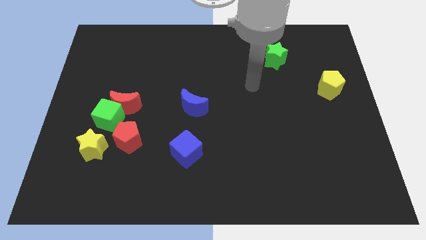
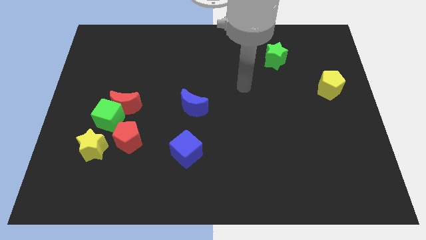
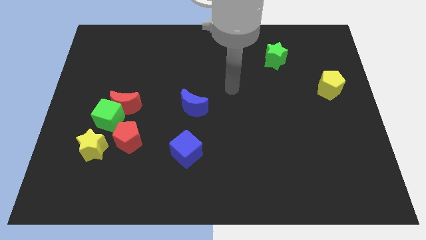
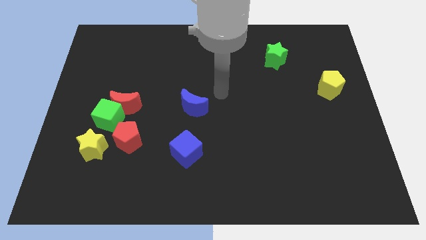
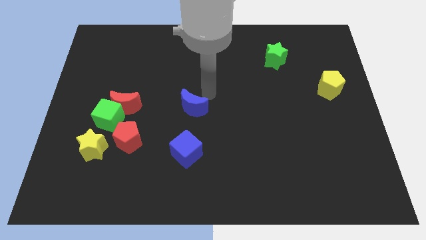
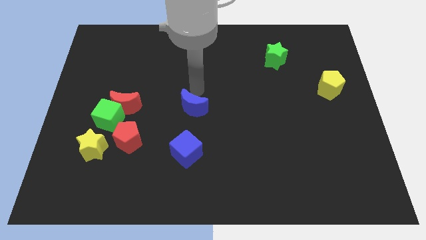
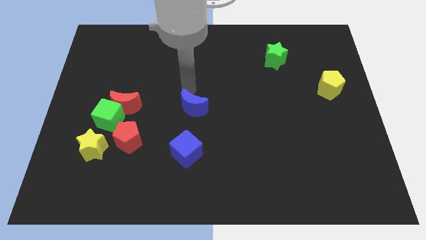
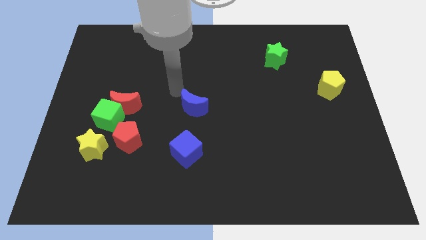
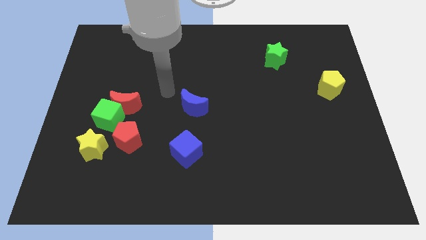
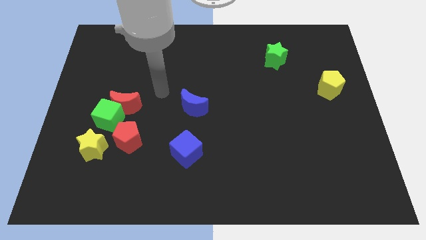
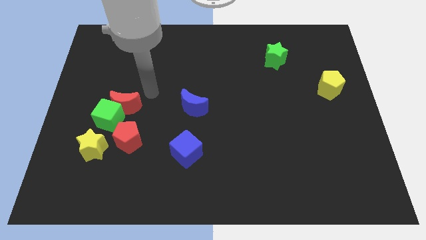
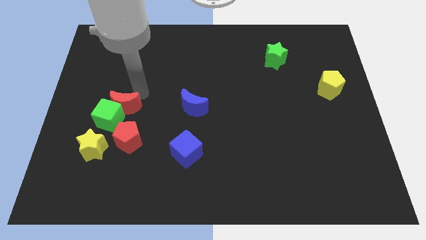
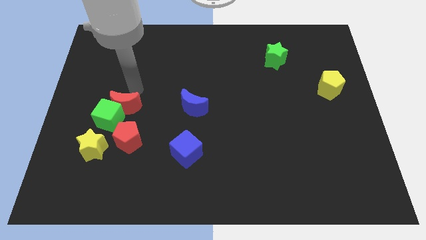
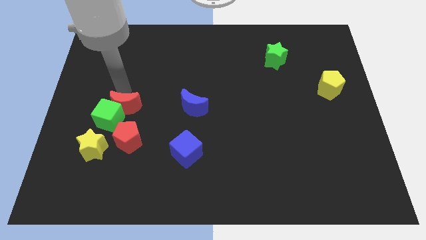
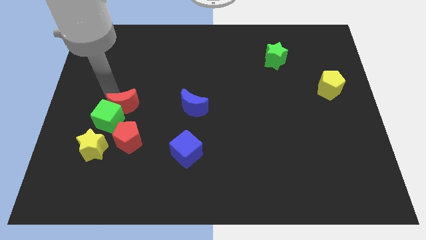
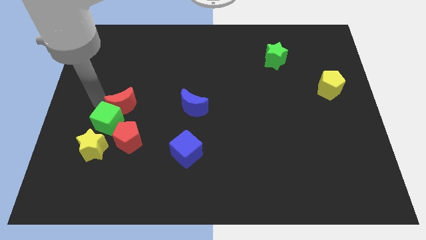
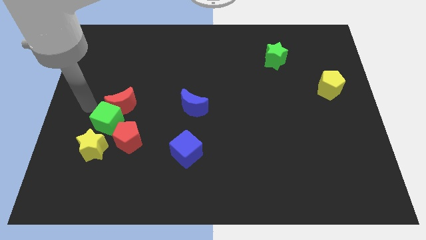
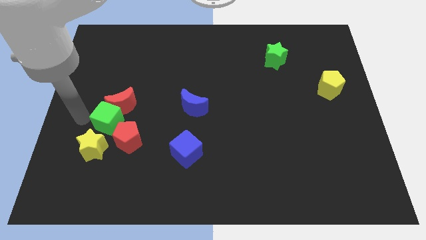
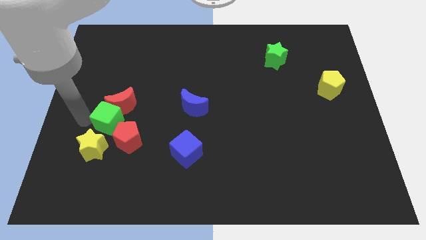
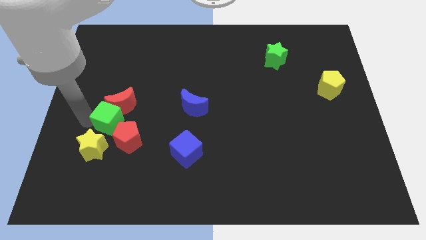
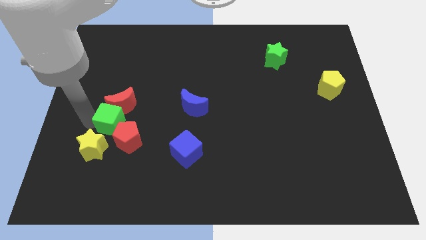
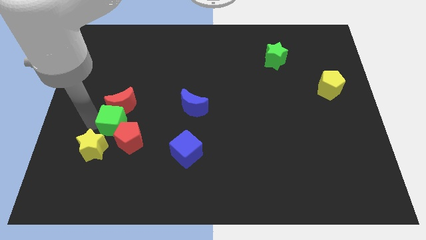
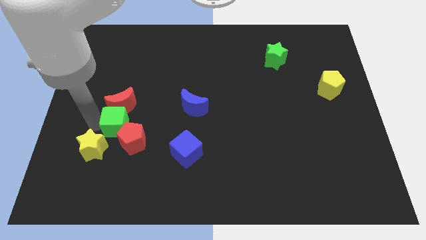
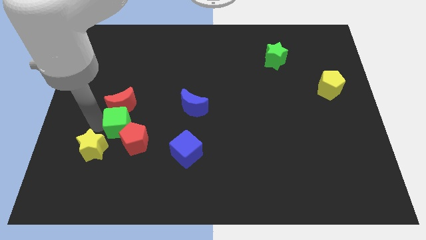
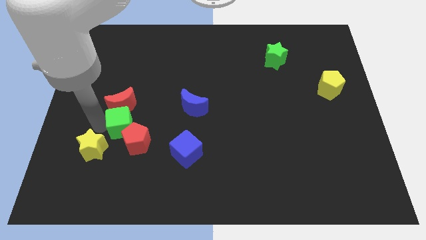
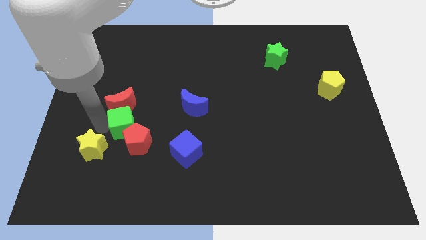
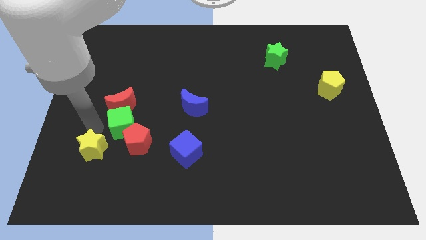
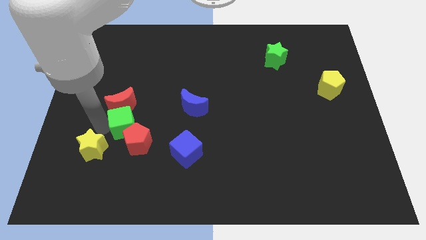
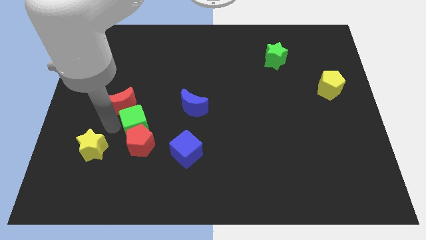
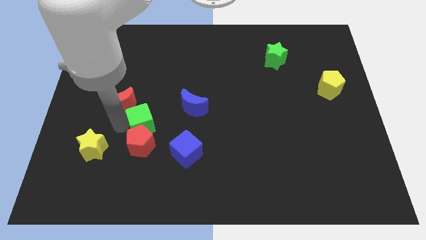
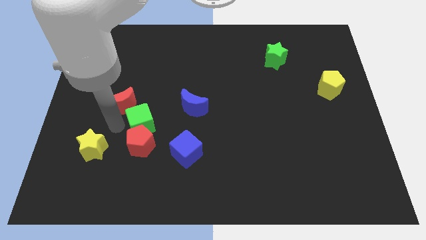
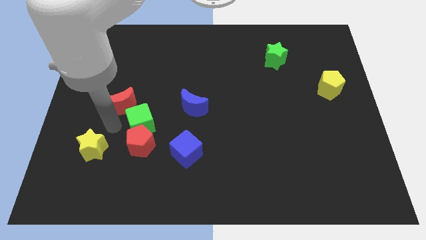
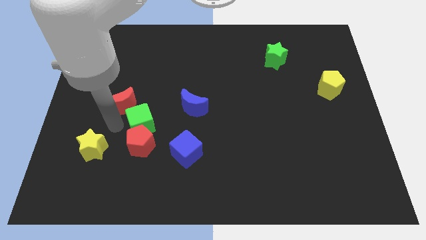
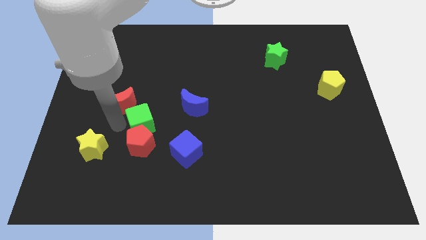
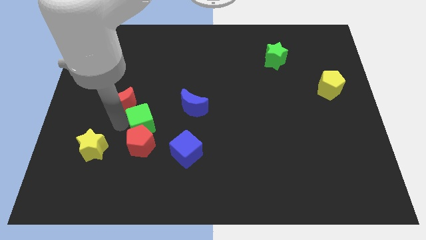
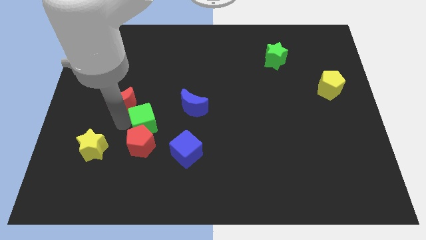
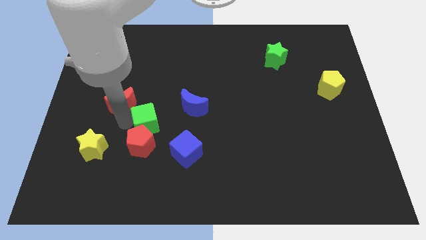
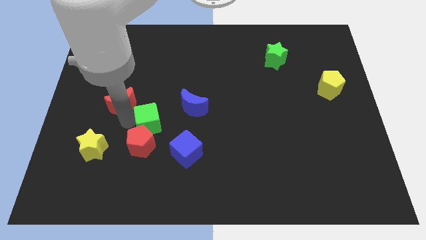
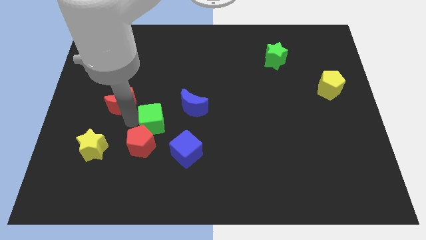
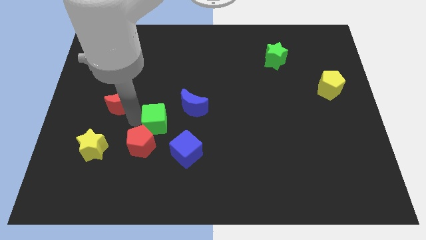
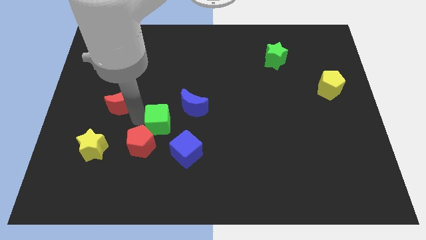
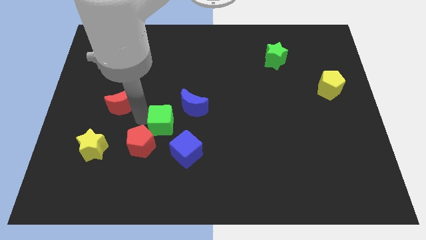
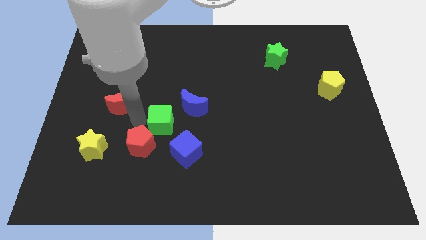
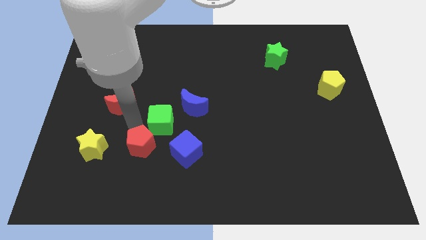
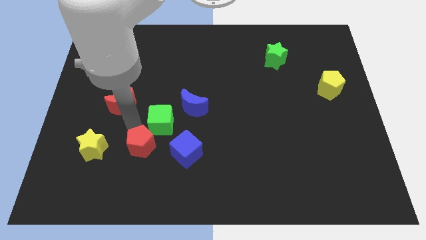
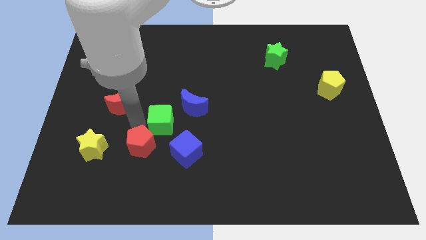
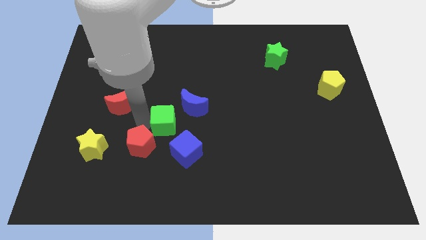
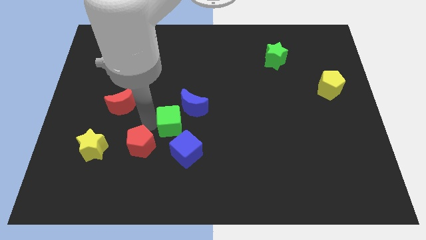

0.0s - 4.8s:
push the green cube to the center of the board

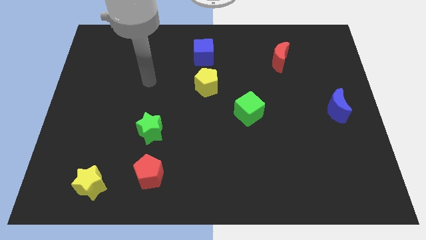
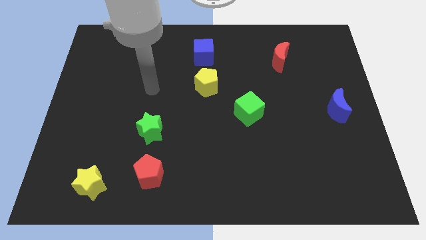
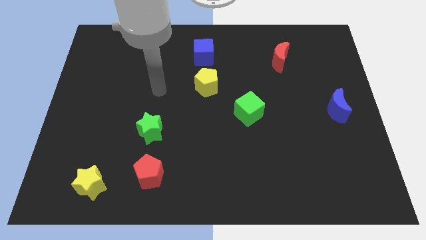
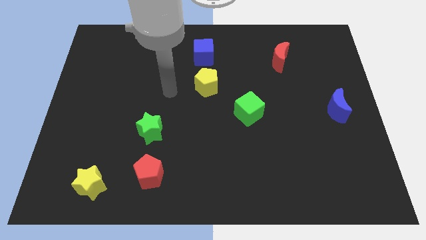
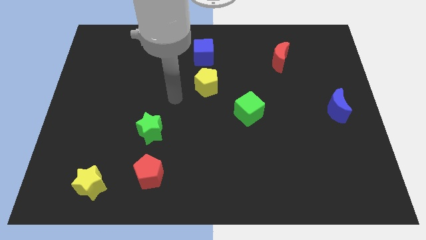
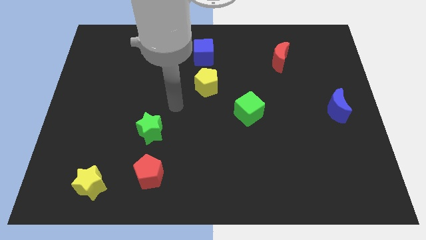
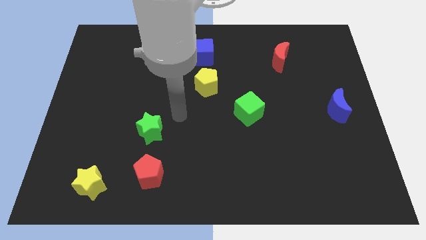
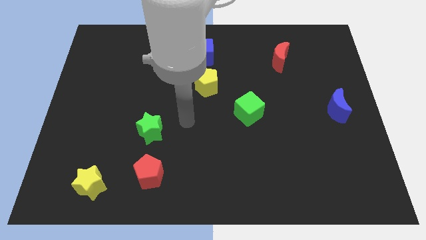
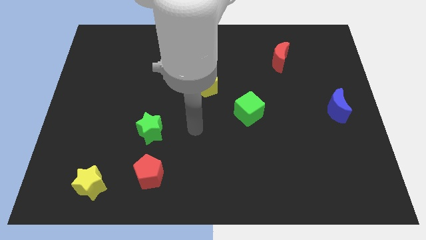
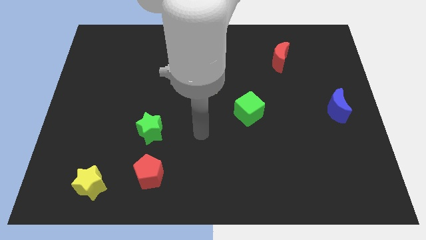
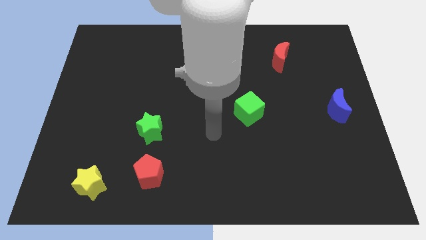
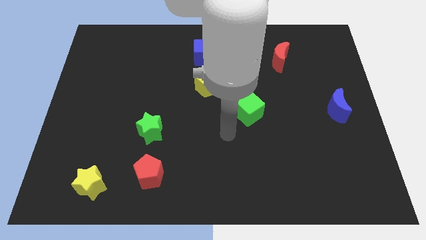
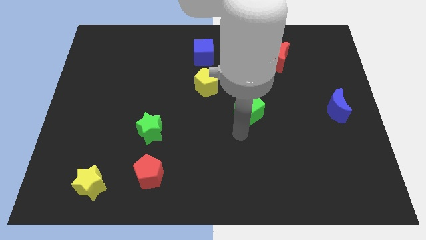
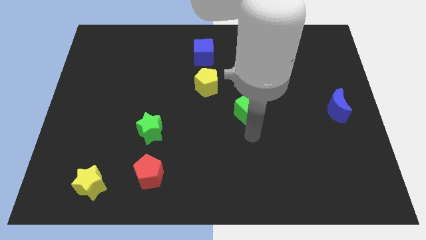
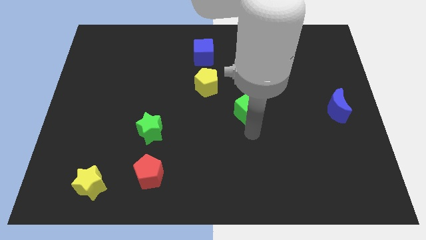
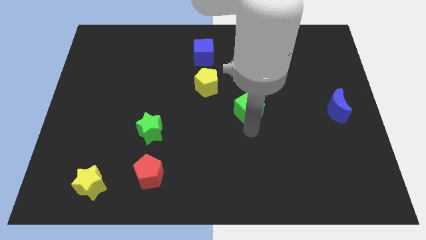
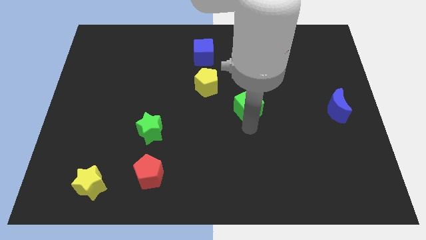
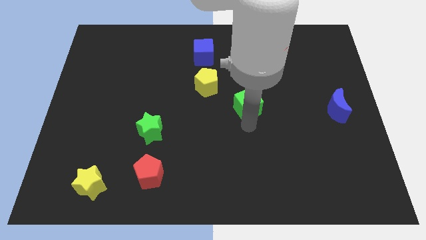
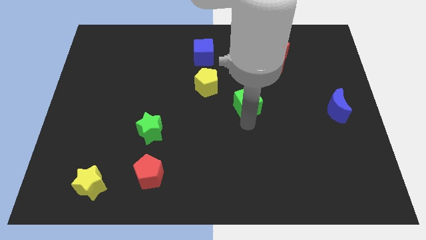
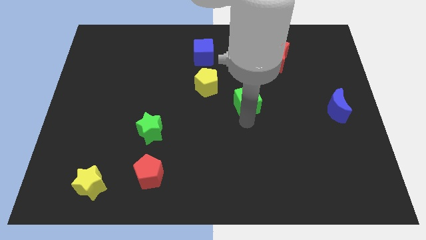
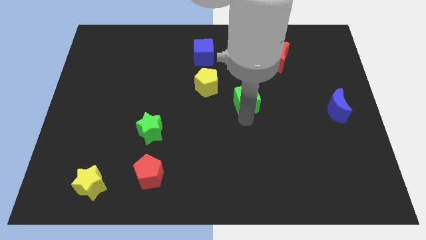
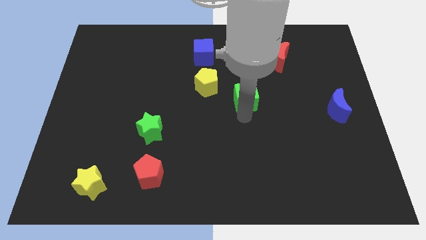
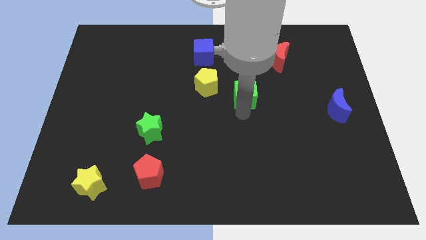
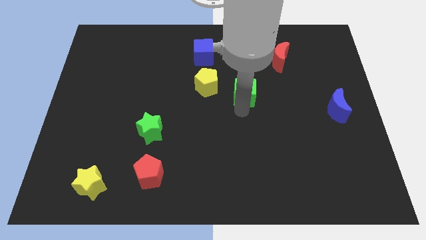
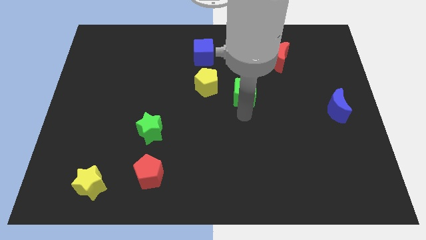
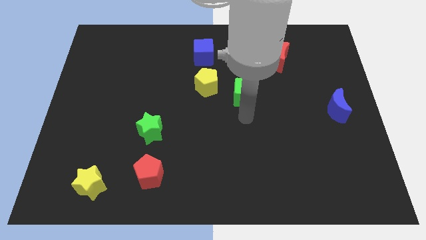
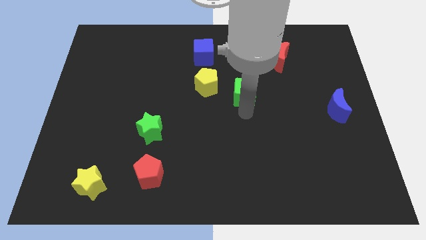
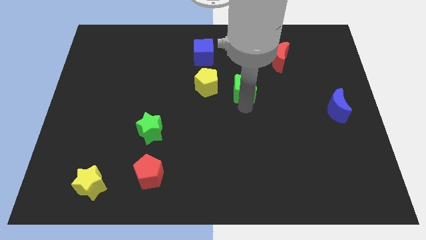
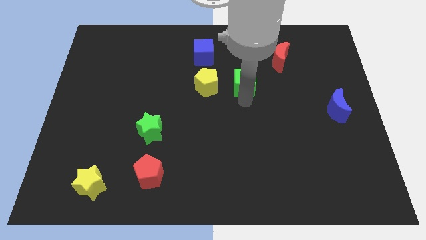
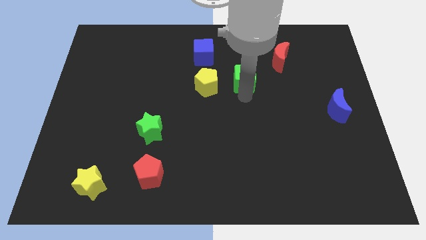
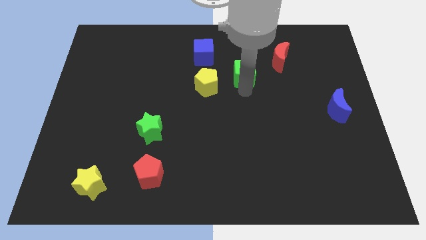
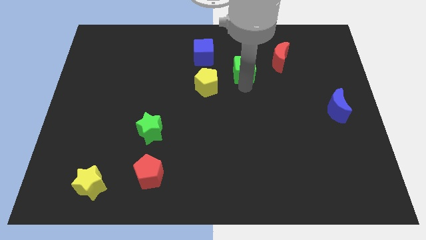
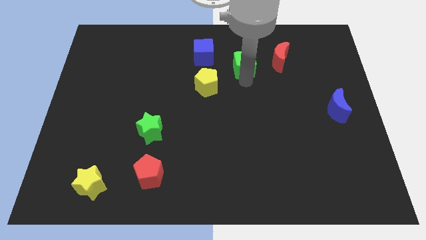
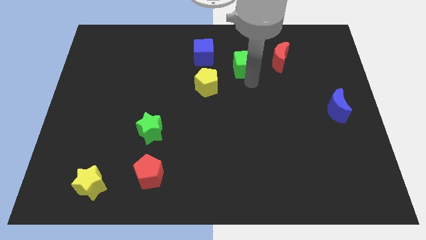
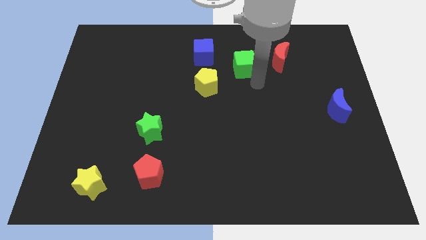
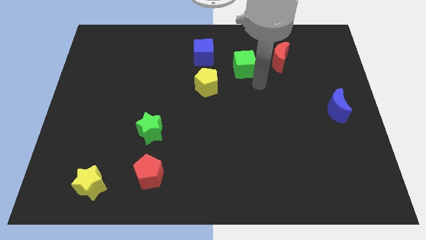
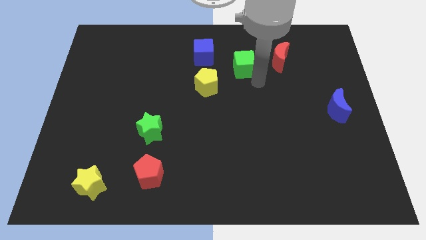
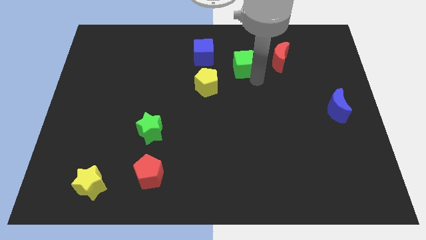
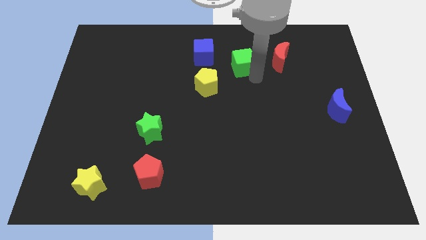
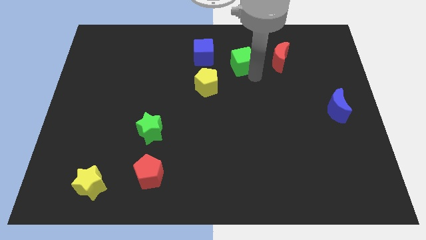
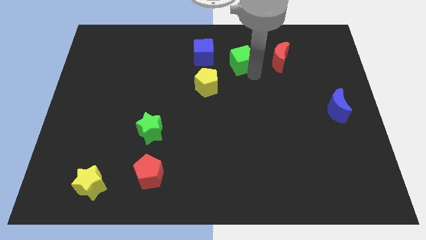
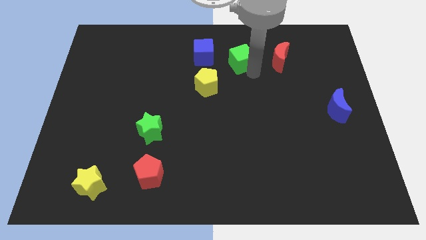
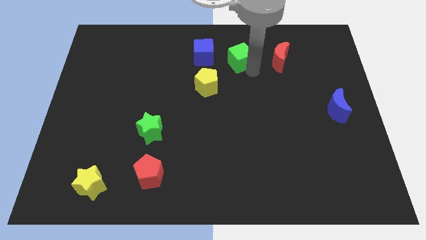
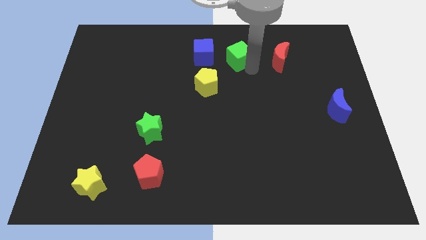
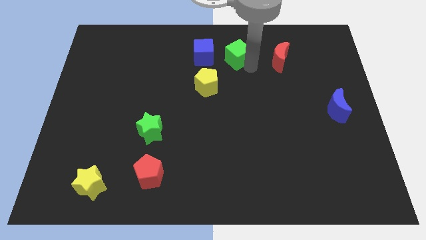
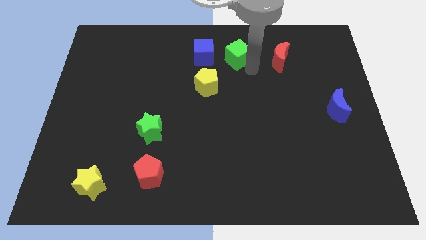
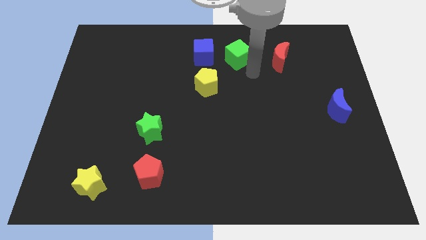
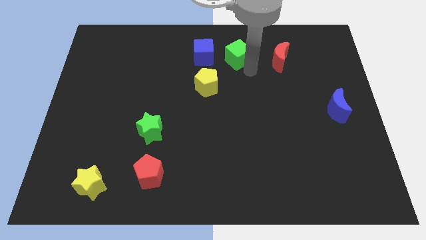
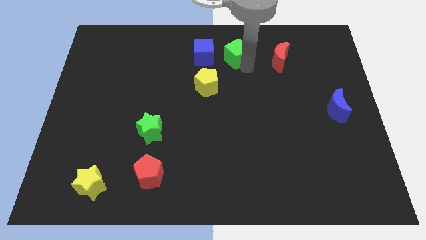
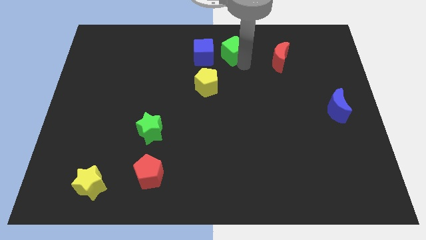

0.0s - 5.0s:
push the green cube to the top side
